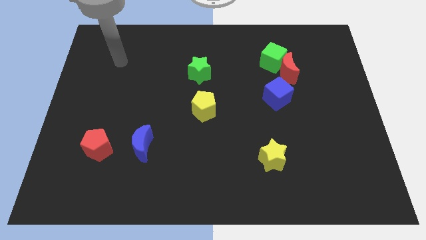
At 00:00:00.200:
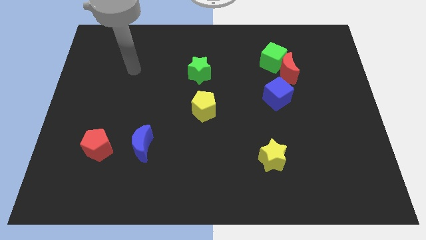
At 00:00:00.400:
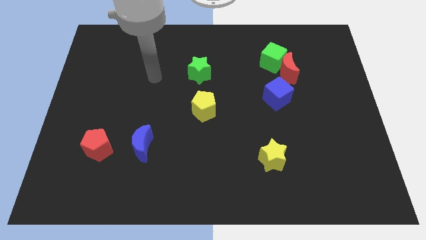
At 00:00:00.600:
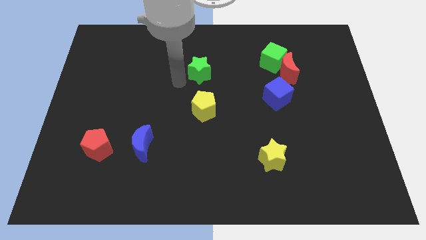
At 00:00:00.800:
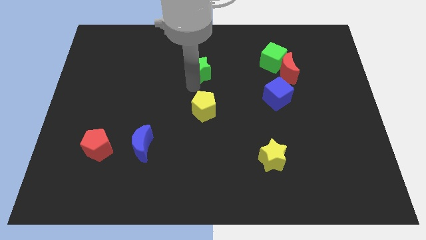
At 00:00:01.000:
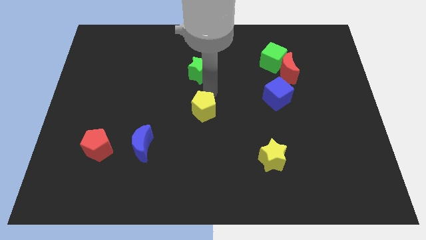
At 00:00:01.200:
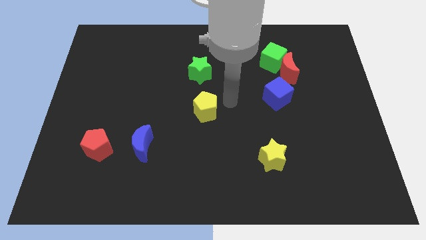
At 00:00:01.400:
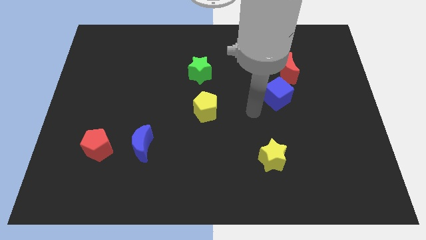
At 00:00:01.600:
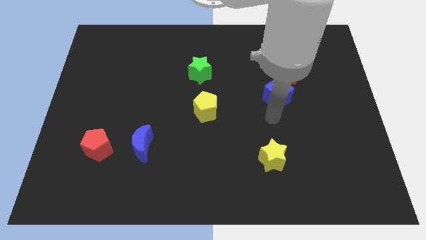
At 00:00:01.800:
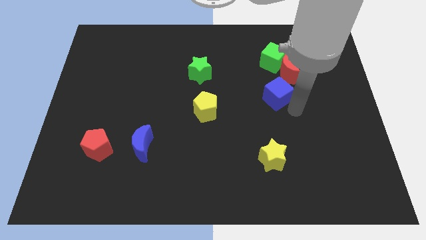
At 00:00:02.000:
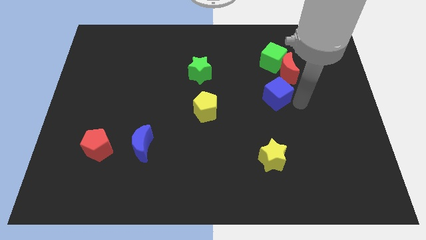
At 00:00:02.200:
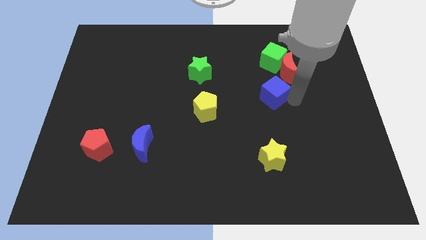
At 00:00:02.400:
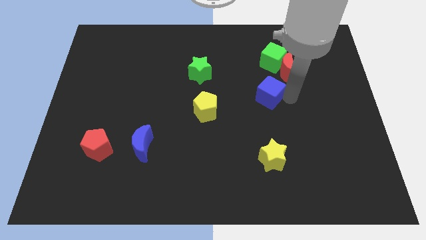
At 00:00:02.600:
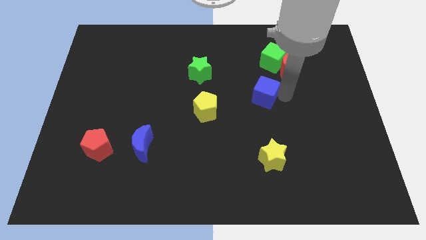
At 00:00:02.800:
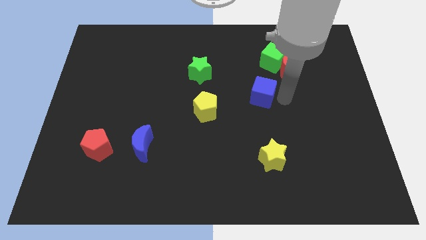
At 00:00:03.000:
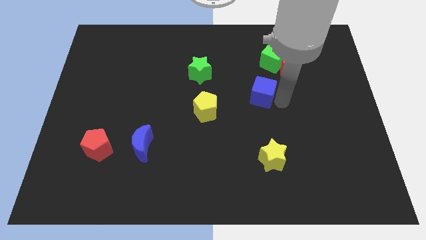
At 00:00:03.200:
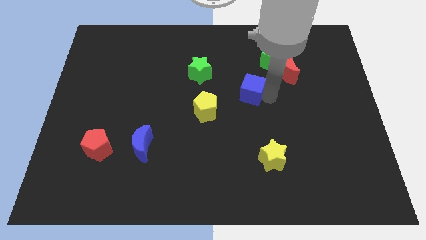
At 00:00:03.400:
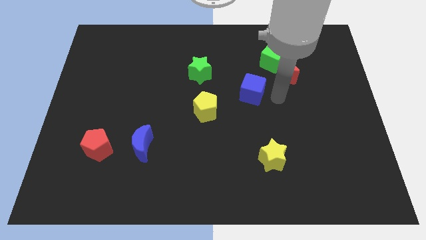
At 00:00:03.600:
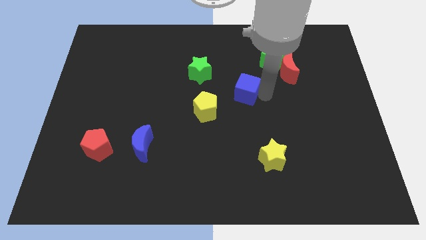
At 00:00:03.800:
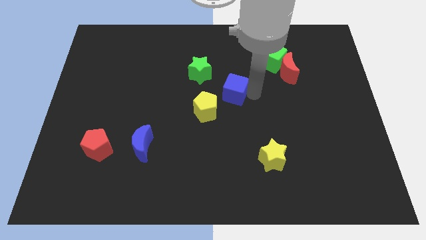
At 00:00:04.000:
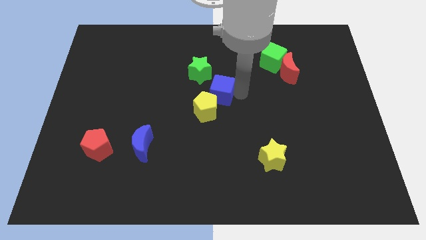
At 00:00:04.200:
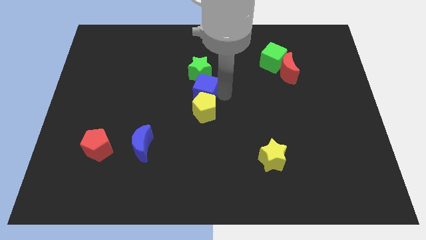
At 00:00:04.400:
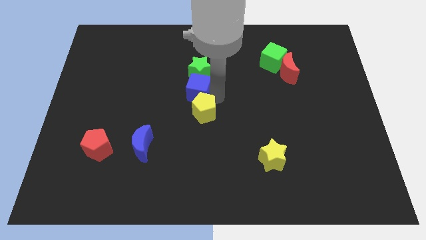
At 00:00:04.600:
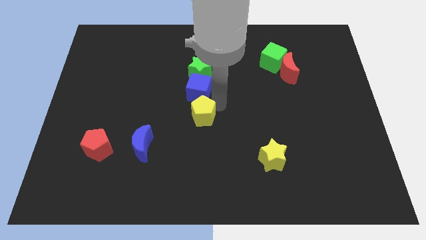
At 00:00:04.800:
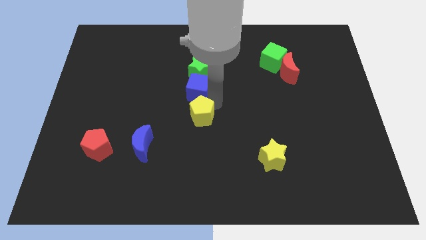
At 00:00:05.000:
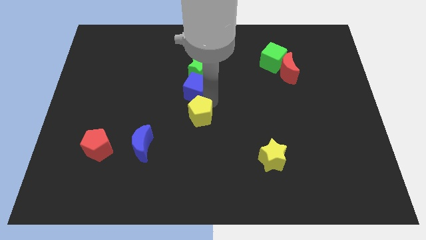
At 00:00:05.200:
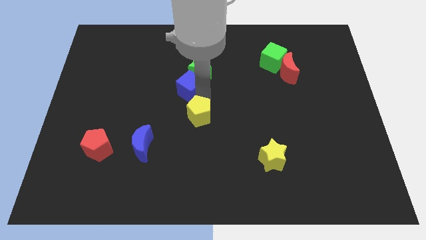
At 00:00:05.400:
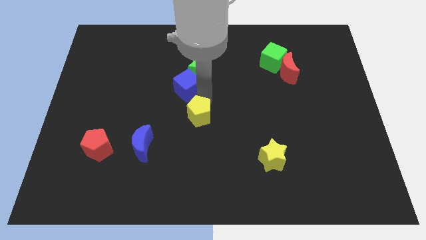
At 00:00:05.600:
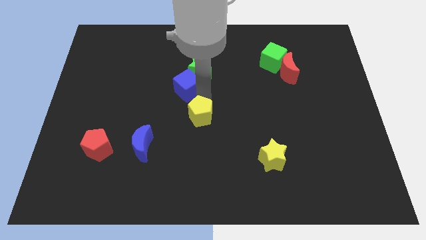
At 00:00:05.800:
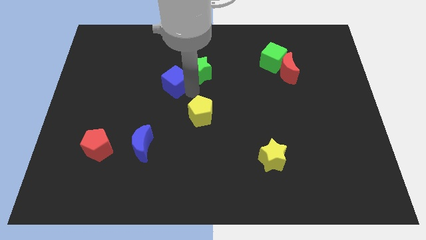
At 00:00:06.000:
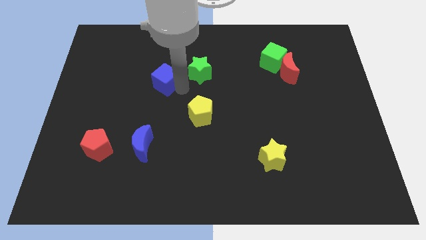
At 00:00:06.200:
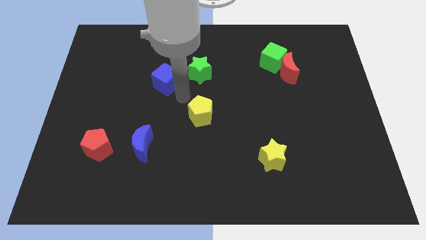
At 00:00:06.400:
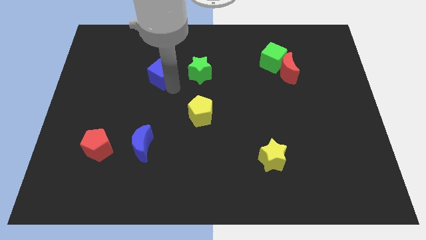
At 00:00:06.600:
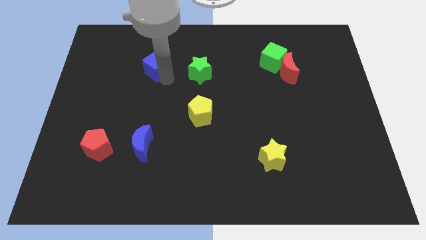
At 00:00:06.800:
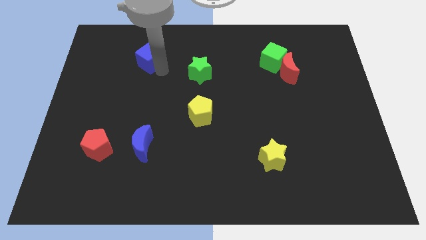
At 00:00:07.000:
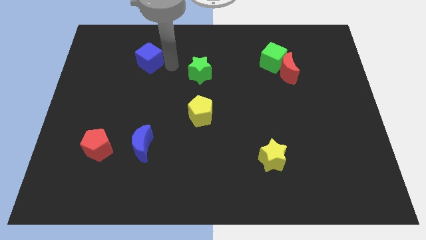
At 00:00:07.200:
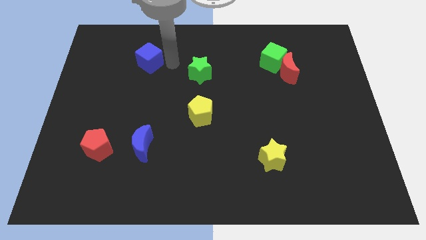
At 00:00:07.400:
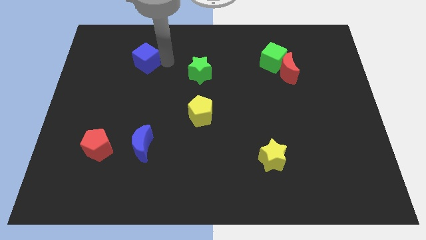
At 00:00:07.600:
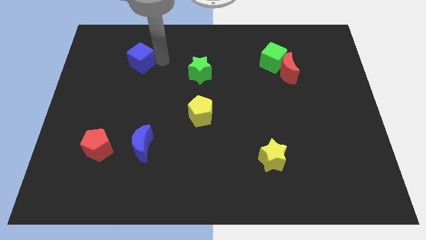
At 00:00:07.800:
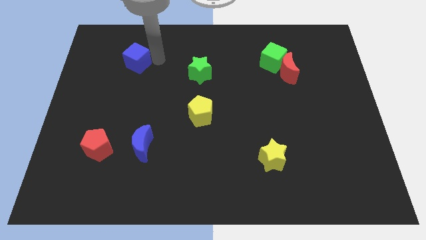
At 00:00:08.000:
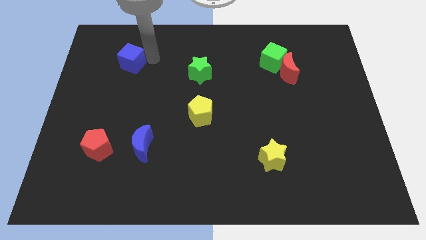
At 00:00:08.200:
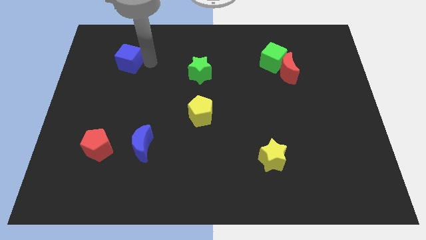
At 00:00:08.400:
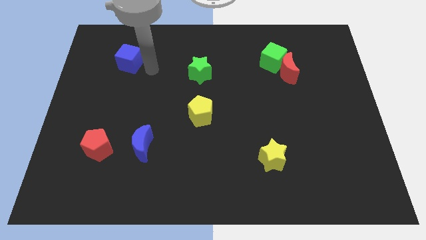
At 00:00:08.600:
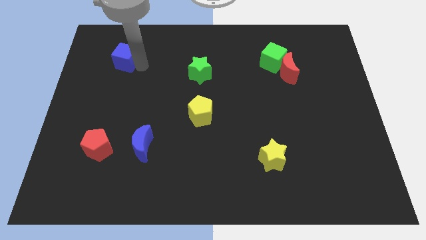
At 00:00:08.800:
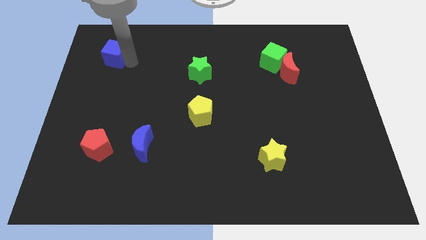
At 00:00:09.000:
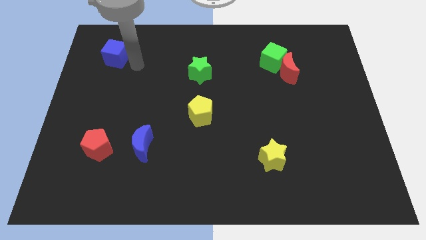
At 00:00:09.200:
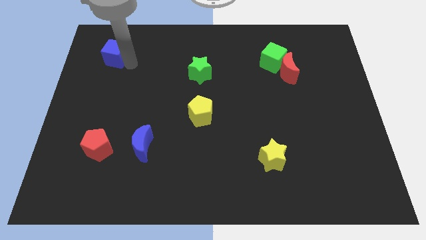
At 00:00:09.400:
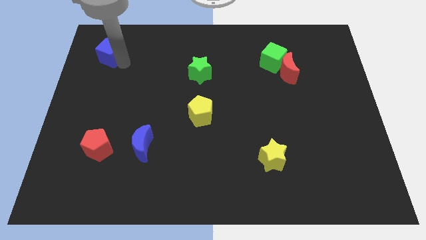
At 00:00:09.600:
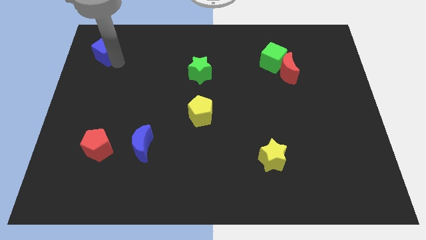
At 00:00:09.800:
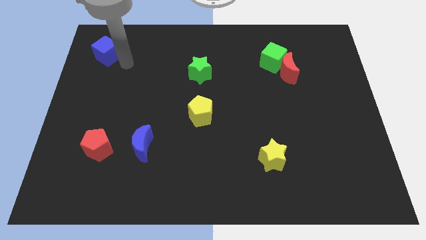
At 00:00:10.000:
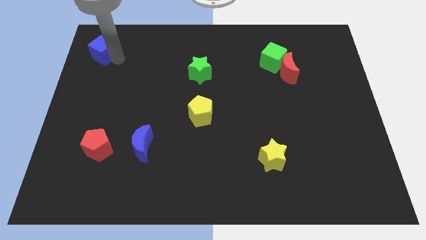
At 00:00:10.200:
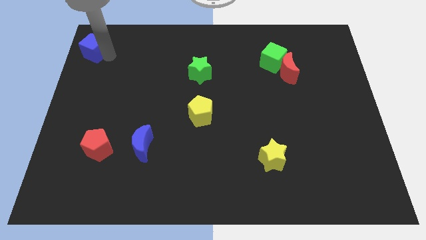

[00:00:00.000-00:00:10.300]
move the blue cube to the top left
